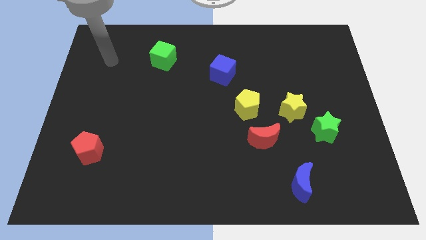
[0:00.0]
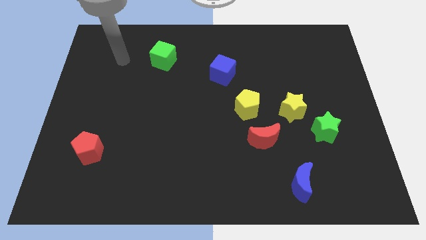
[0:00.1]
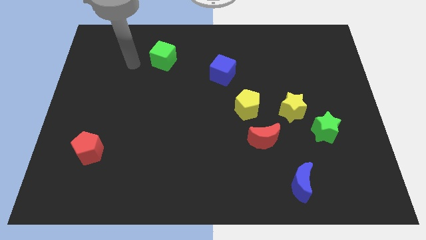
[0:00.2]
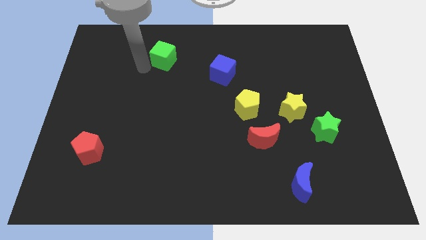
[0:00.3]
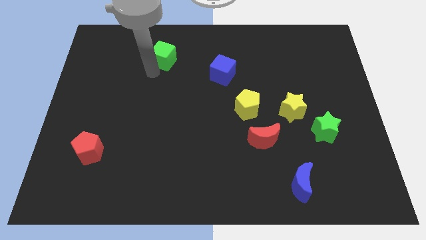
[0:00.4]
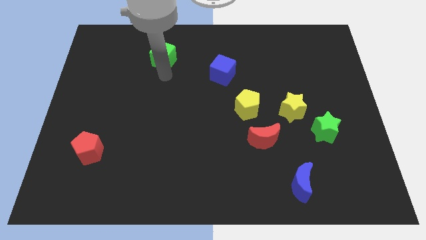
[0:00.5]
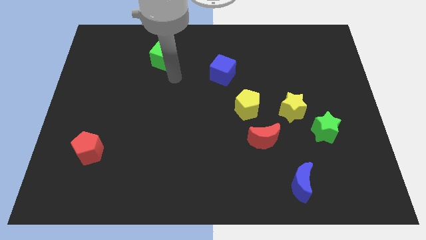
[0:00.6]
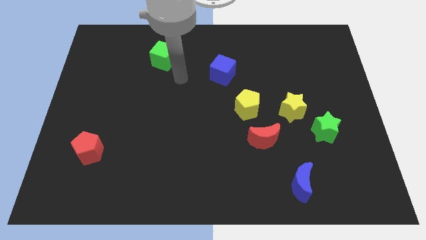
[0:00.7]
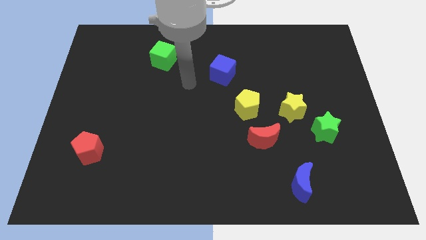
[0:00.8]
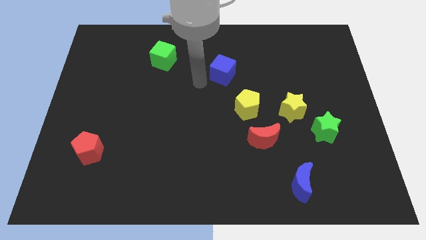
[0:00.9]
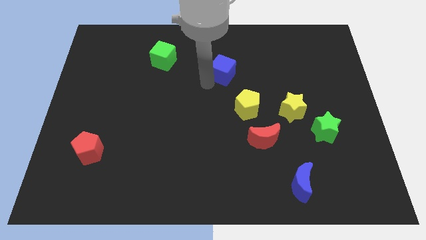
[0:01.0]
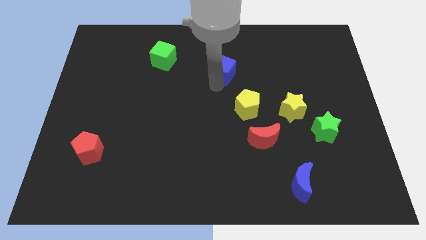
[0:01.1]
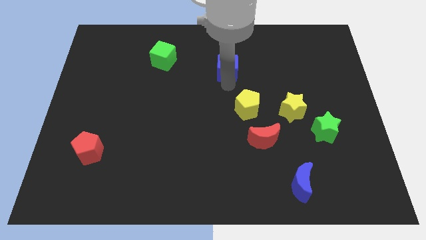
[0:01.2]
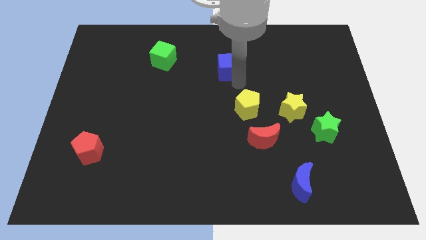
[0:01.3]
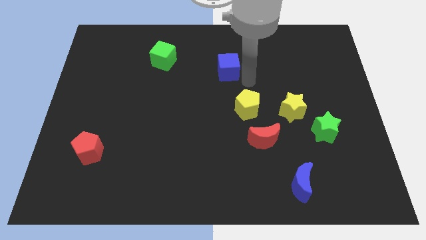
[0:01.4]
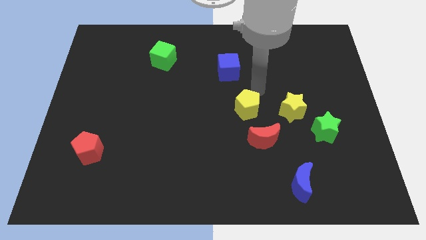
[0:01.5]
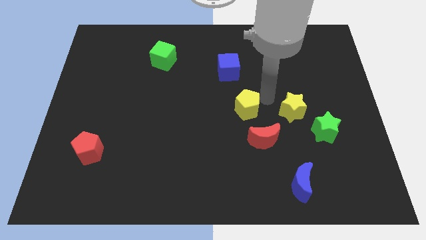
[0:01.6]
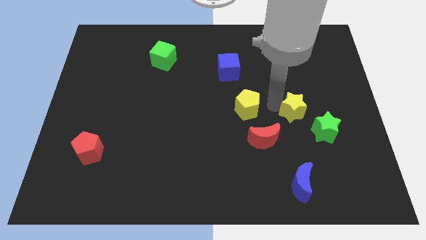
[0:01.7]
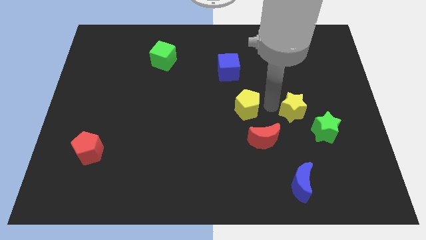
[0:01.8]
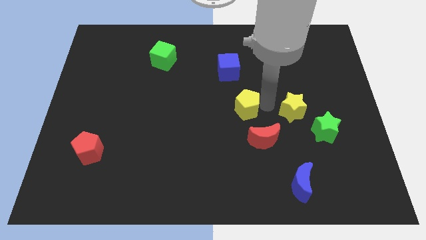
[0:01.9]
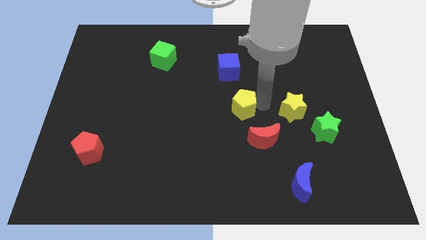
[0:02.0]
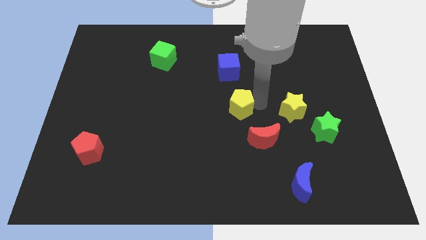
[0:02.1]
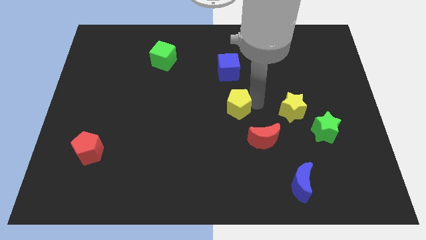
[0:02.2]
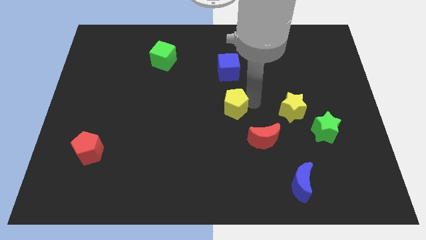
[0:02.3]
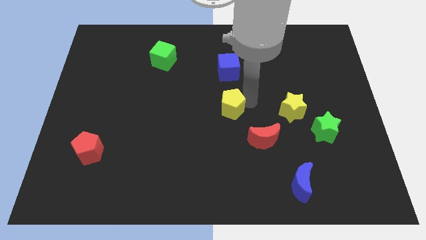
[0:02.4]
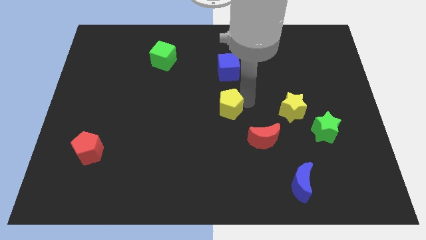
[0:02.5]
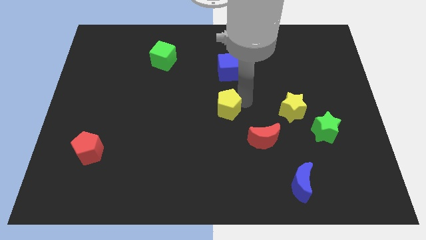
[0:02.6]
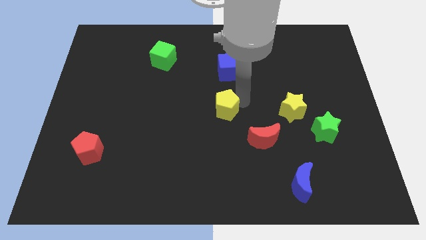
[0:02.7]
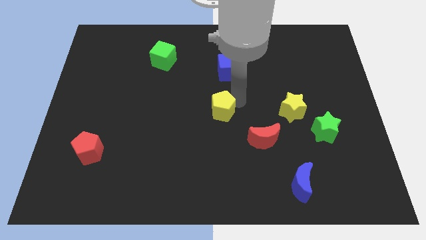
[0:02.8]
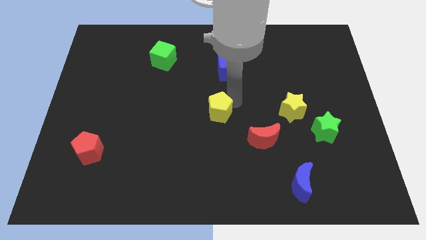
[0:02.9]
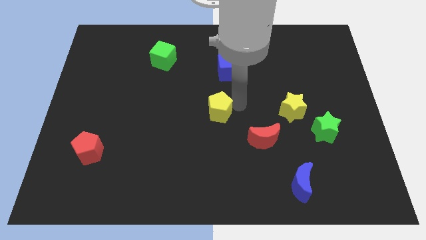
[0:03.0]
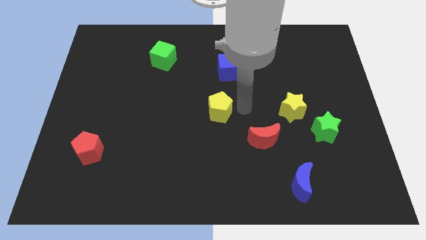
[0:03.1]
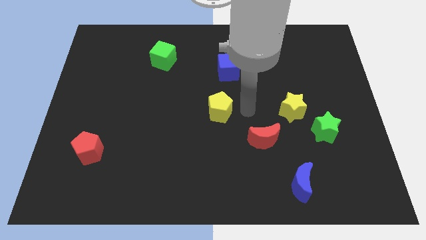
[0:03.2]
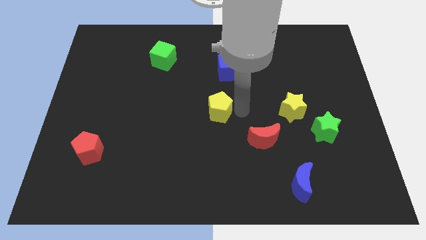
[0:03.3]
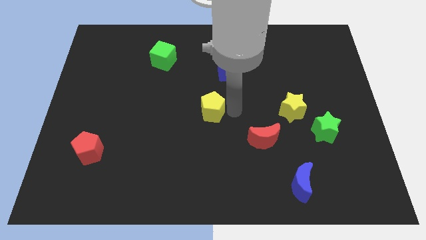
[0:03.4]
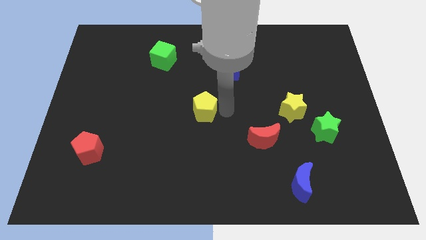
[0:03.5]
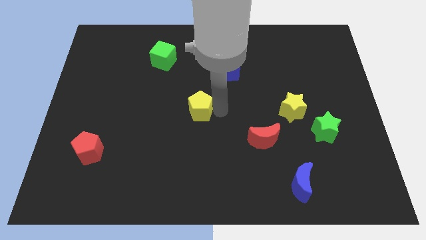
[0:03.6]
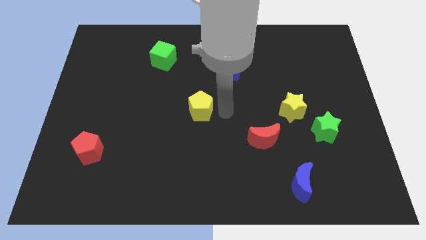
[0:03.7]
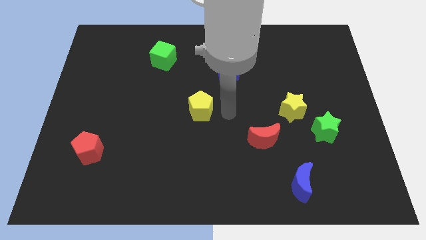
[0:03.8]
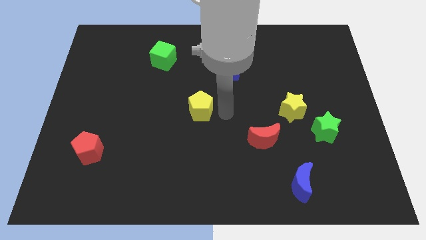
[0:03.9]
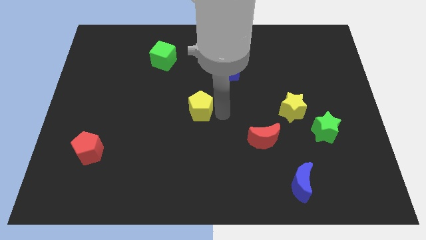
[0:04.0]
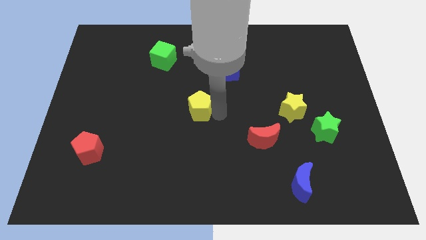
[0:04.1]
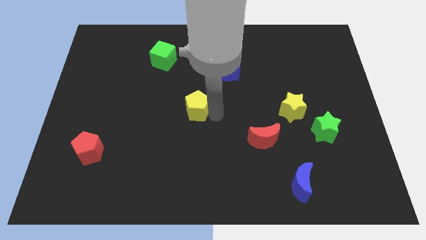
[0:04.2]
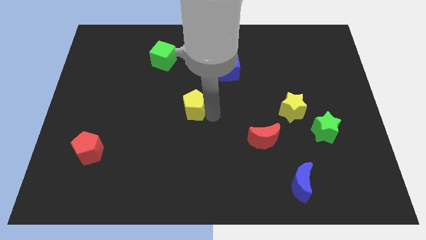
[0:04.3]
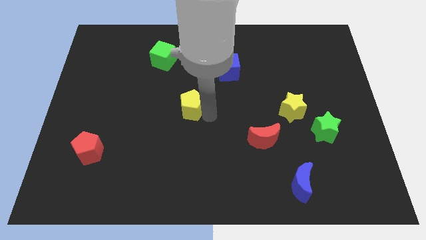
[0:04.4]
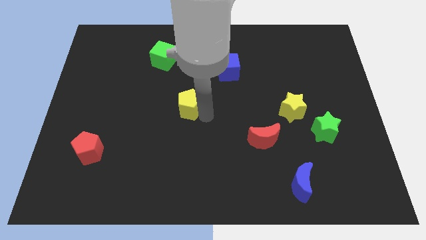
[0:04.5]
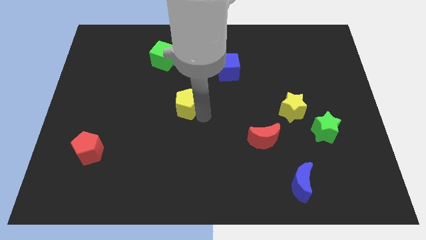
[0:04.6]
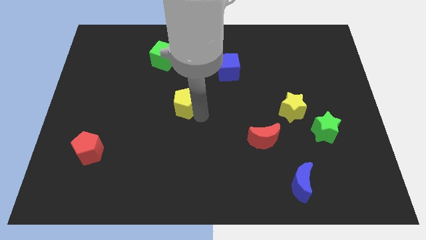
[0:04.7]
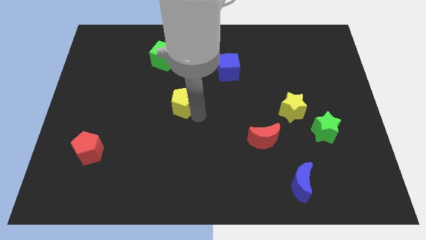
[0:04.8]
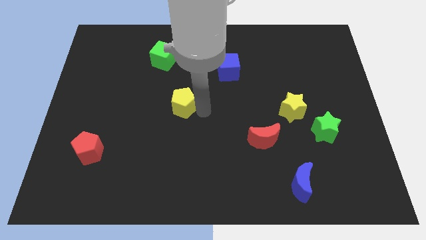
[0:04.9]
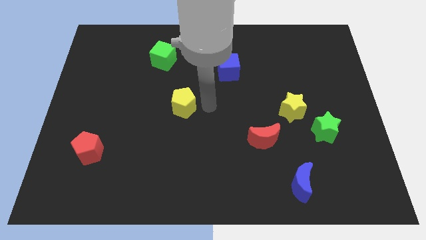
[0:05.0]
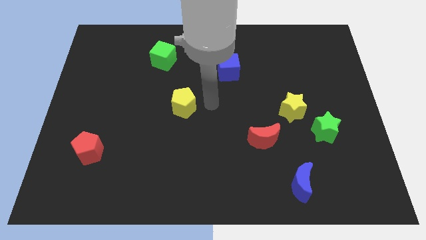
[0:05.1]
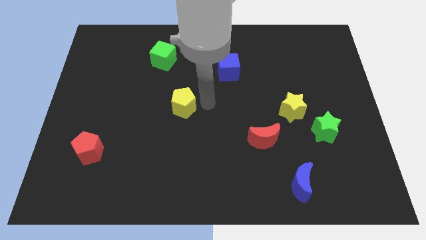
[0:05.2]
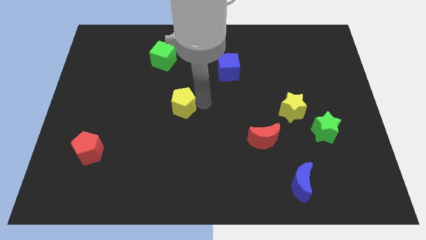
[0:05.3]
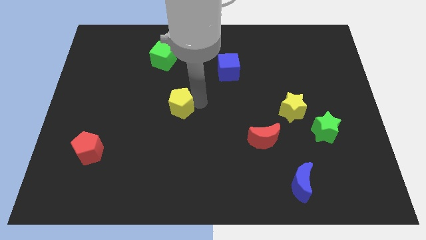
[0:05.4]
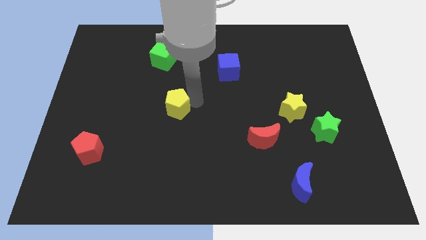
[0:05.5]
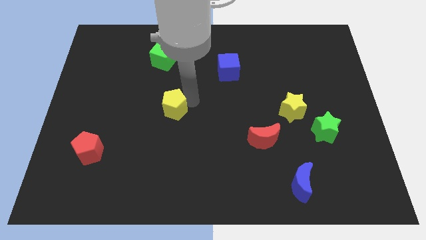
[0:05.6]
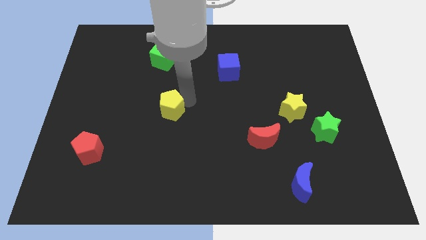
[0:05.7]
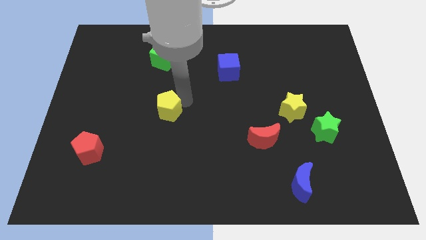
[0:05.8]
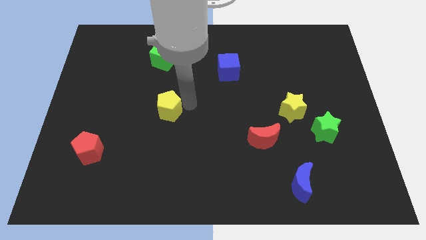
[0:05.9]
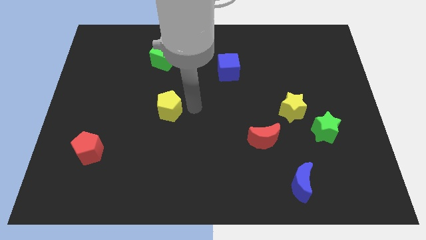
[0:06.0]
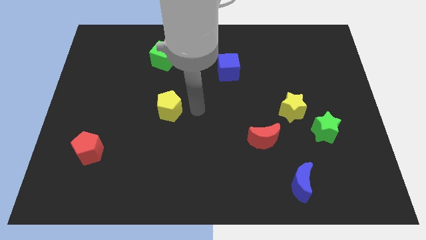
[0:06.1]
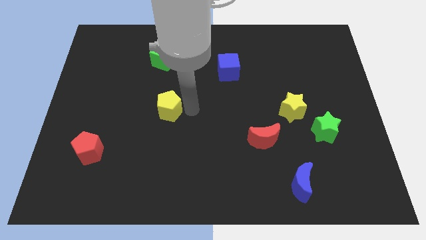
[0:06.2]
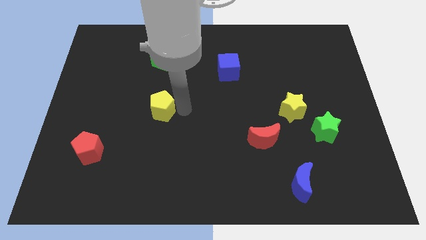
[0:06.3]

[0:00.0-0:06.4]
push the yellow pentagon left

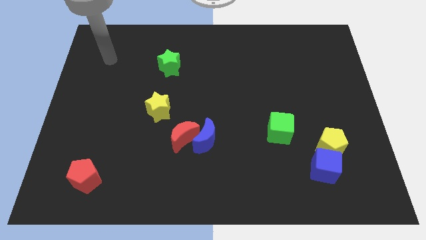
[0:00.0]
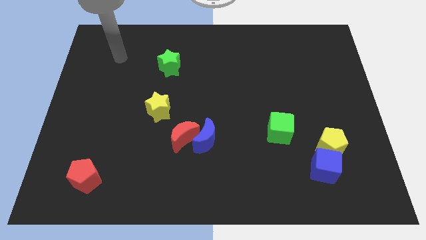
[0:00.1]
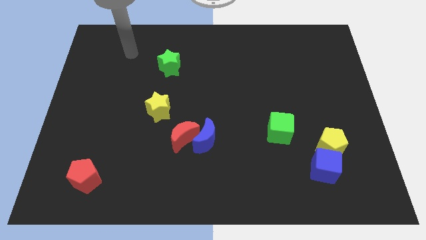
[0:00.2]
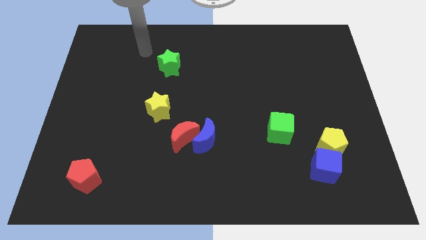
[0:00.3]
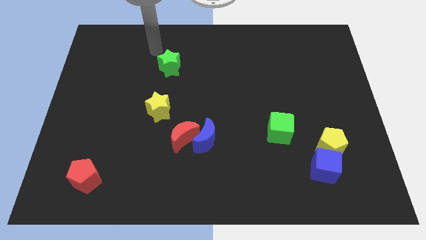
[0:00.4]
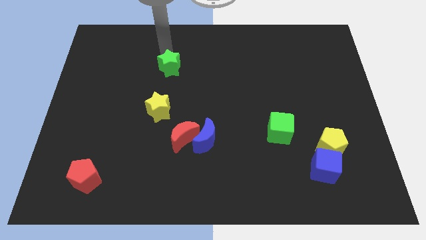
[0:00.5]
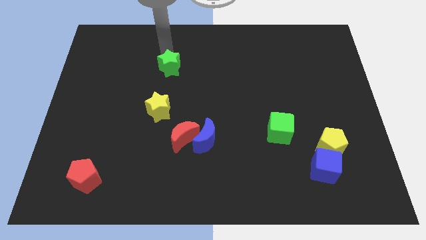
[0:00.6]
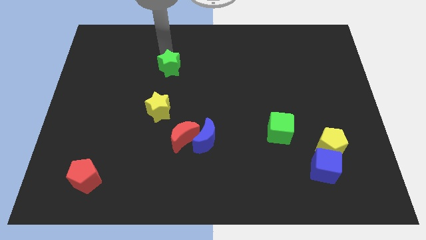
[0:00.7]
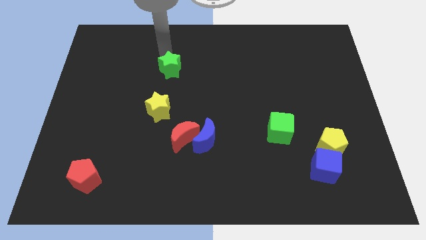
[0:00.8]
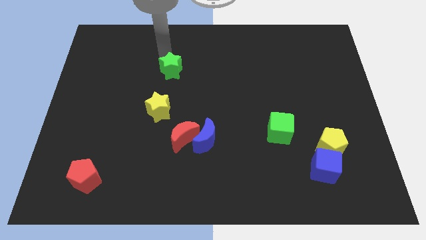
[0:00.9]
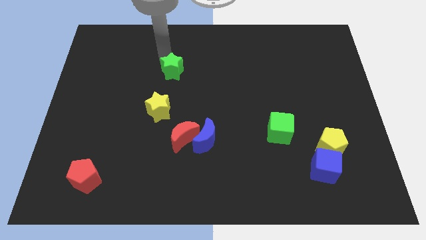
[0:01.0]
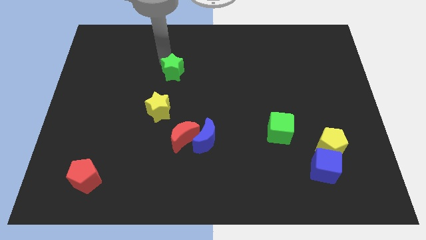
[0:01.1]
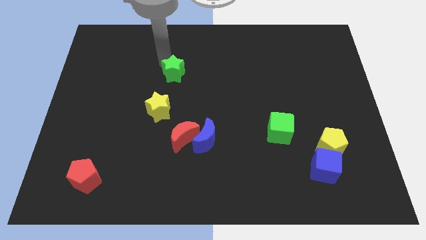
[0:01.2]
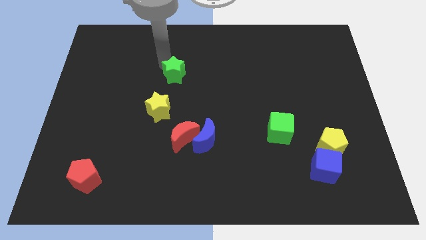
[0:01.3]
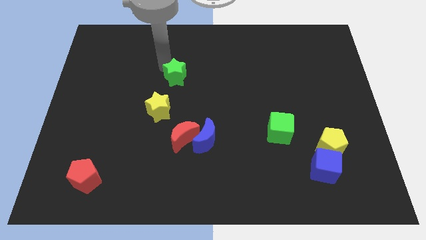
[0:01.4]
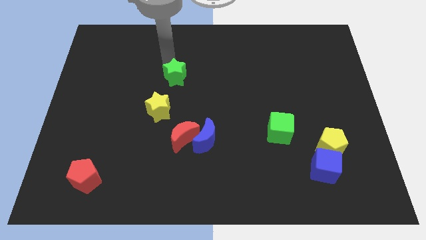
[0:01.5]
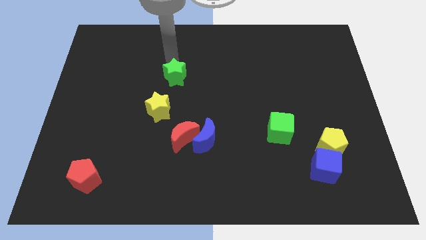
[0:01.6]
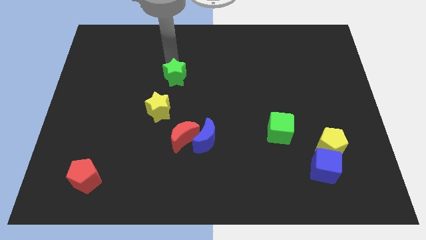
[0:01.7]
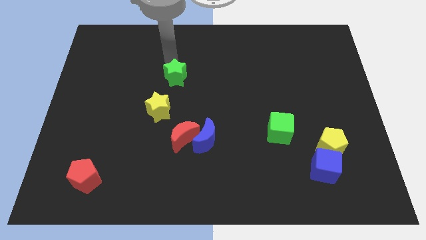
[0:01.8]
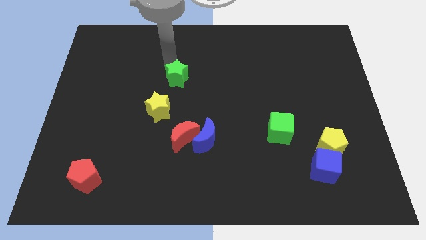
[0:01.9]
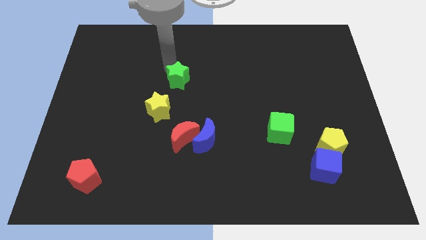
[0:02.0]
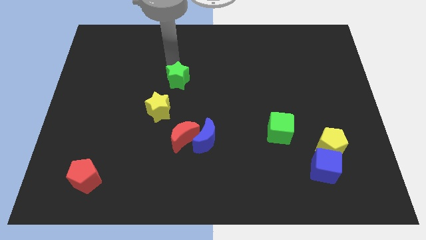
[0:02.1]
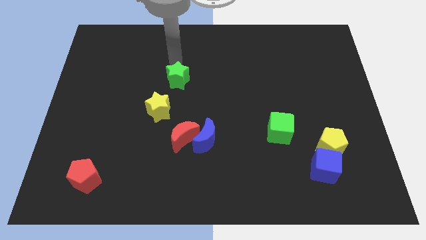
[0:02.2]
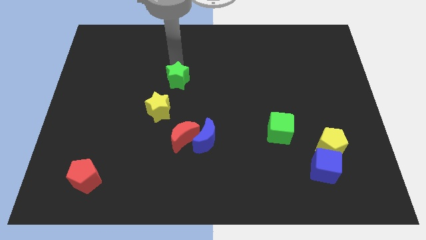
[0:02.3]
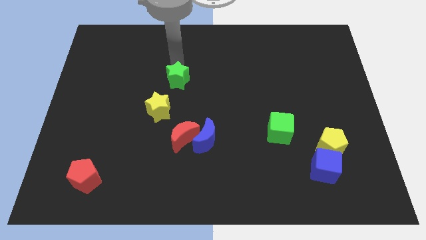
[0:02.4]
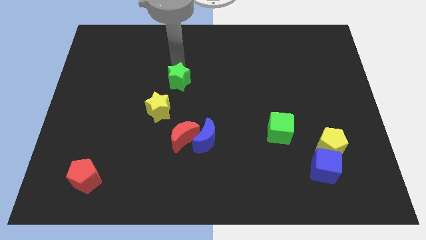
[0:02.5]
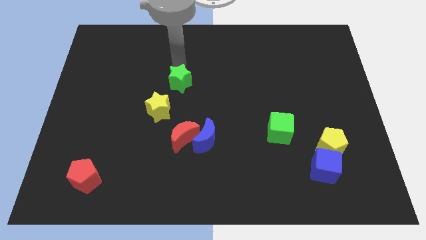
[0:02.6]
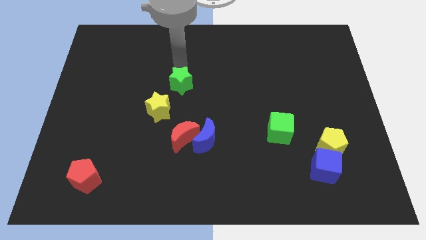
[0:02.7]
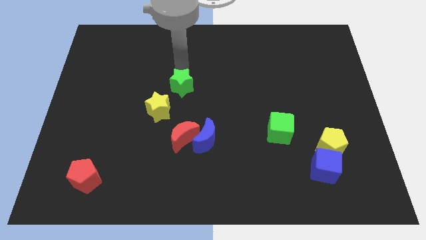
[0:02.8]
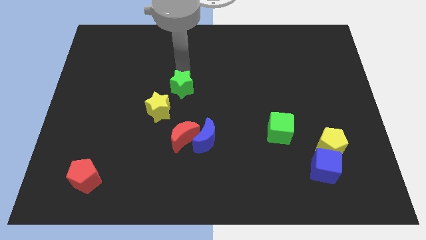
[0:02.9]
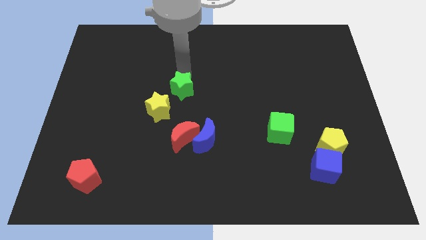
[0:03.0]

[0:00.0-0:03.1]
push the green star down a little
